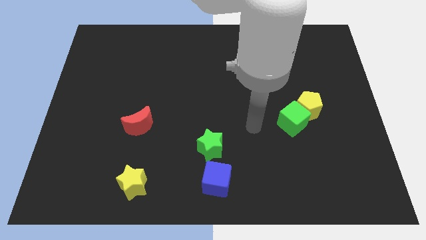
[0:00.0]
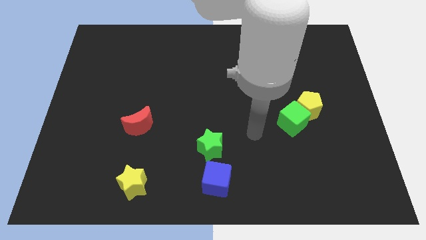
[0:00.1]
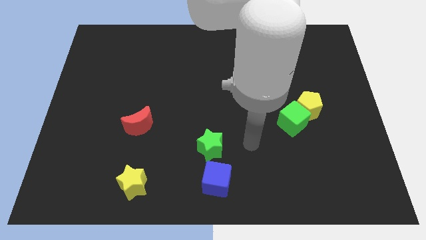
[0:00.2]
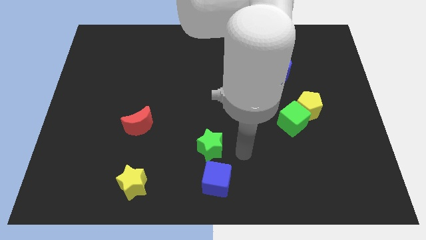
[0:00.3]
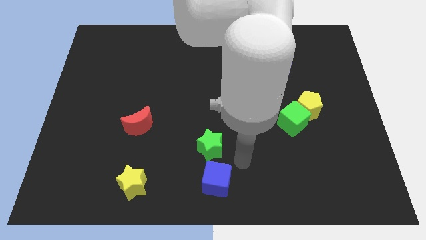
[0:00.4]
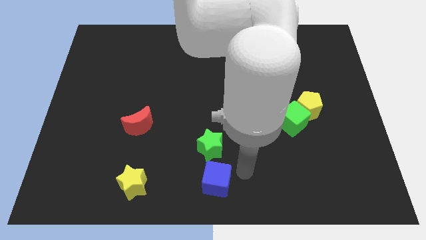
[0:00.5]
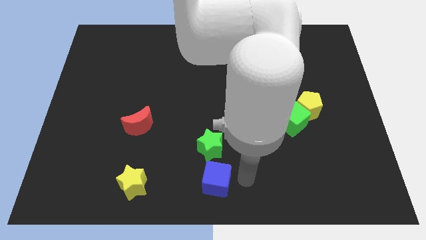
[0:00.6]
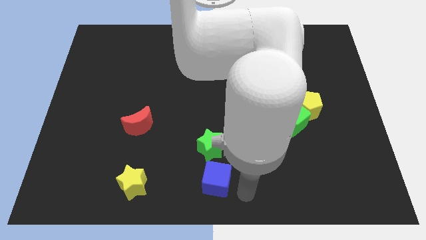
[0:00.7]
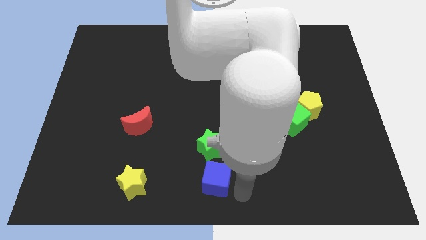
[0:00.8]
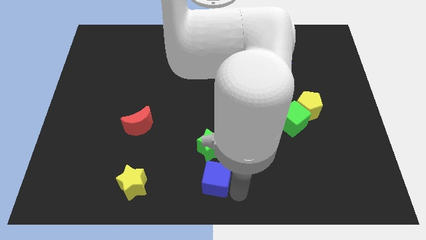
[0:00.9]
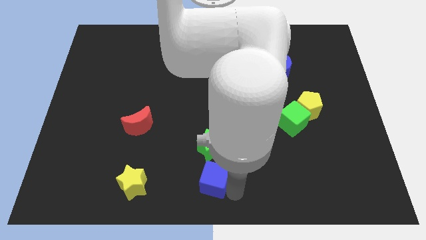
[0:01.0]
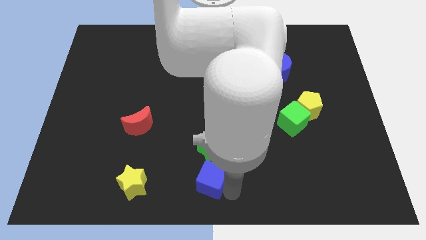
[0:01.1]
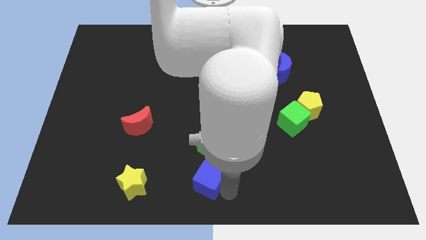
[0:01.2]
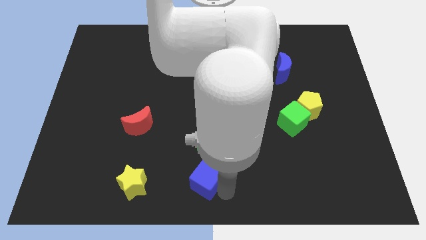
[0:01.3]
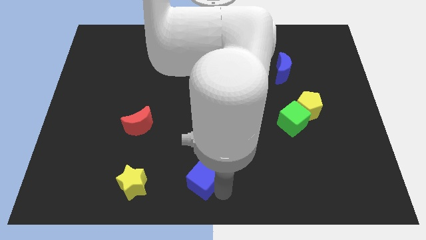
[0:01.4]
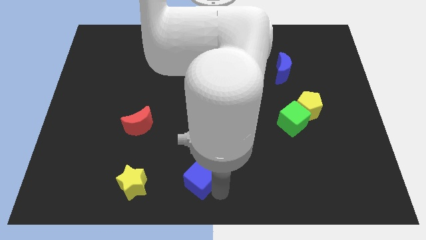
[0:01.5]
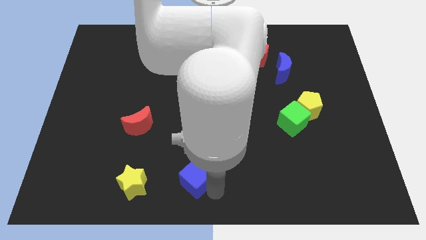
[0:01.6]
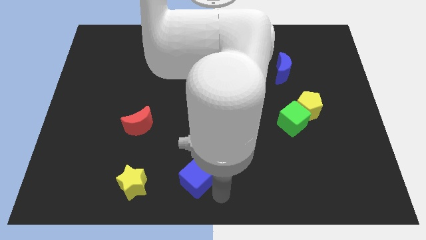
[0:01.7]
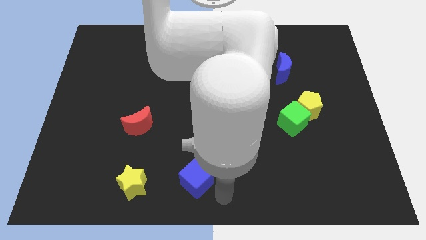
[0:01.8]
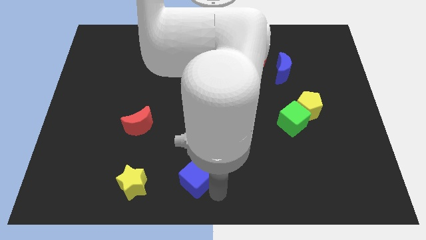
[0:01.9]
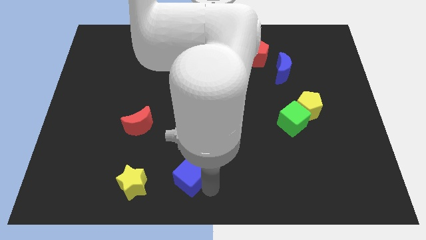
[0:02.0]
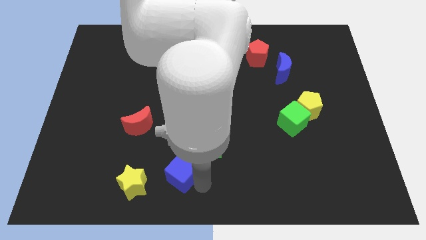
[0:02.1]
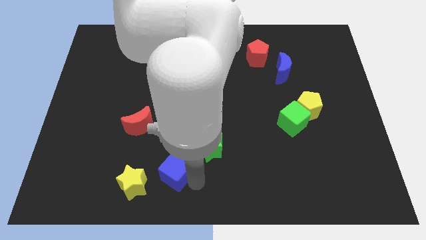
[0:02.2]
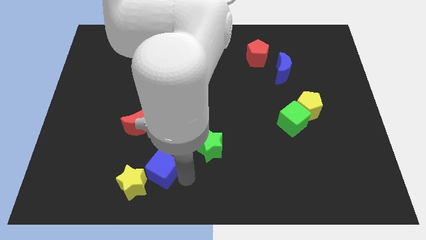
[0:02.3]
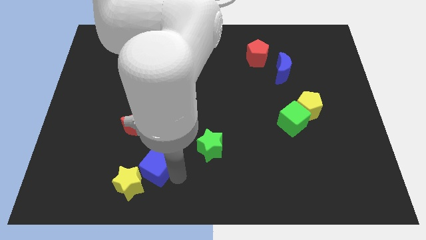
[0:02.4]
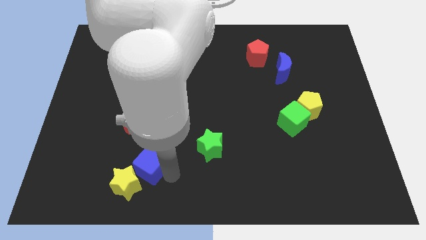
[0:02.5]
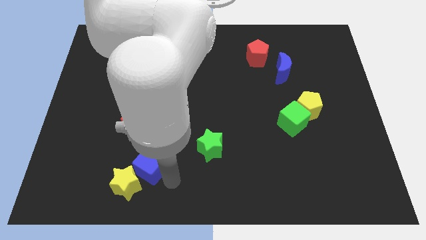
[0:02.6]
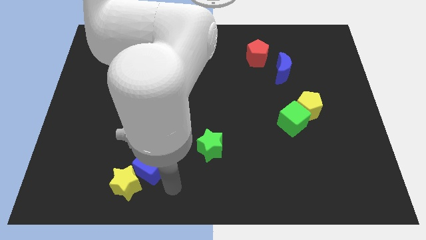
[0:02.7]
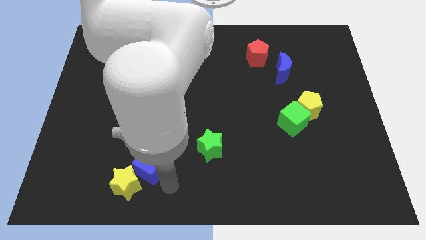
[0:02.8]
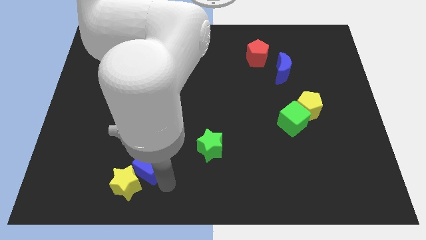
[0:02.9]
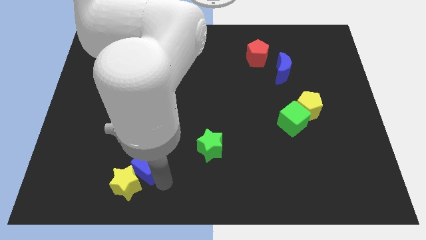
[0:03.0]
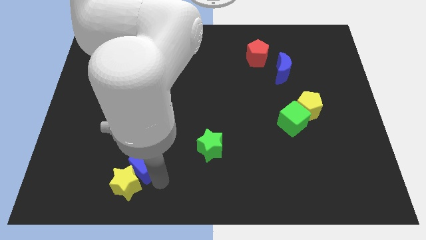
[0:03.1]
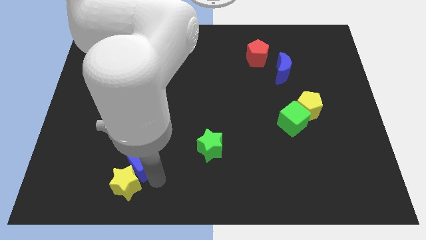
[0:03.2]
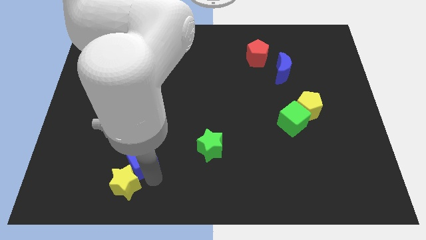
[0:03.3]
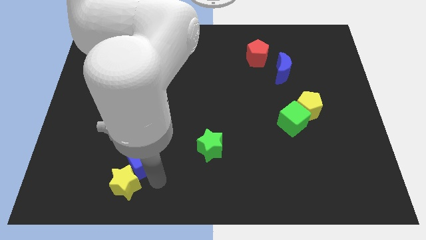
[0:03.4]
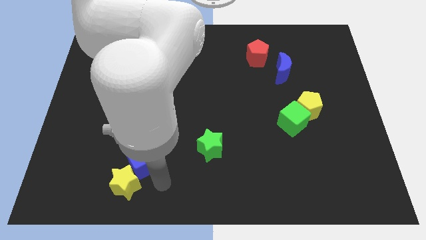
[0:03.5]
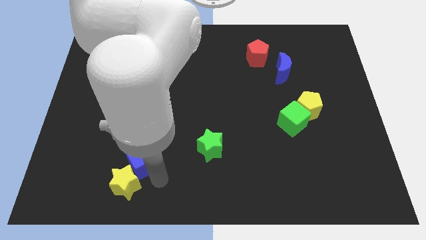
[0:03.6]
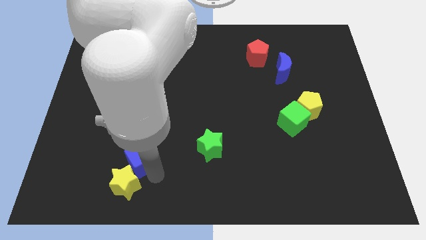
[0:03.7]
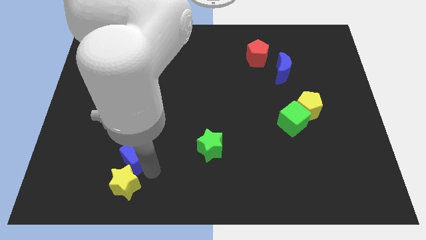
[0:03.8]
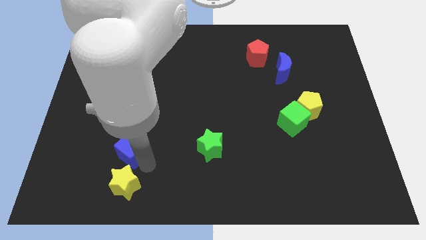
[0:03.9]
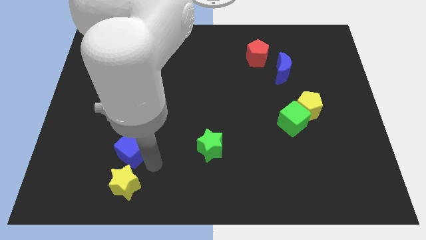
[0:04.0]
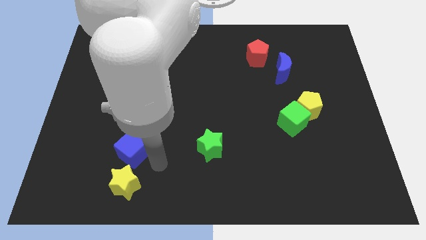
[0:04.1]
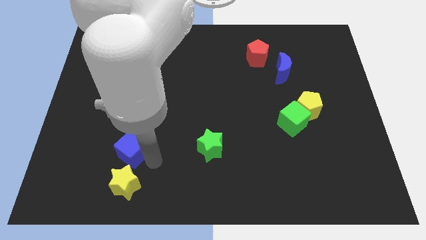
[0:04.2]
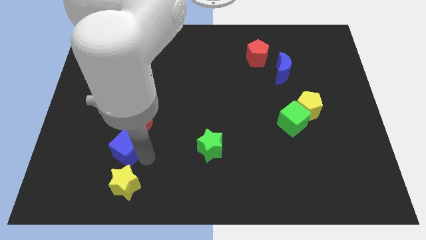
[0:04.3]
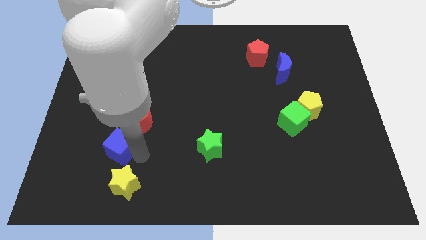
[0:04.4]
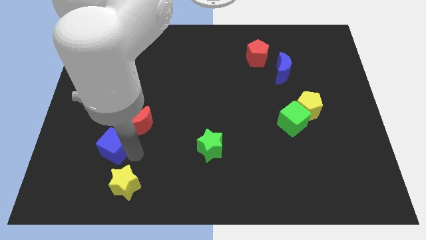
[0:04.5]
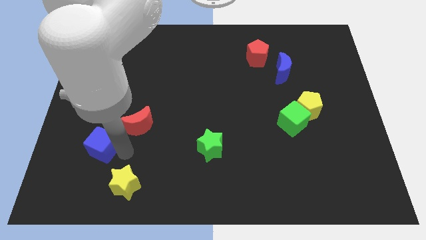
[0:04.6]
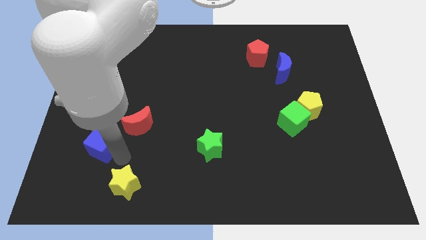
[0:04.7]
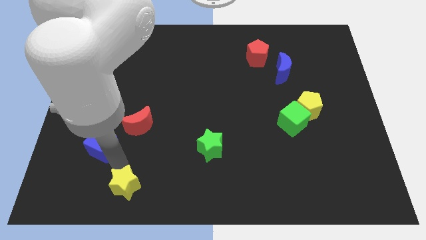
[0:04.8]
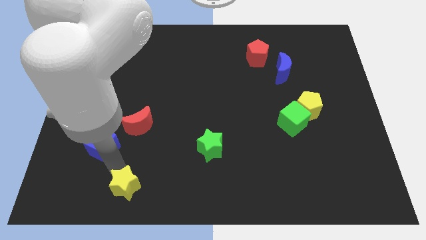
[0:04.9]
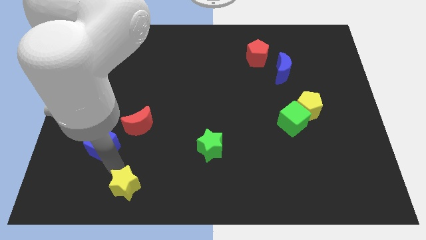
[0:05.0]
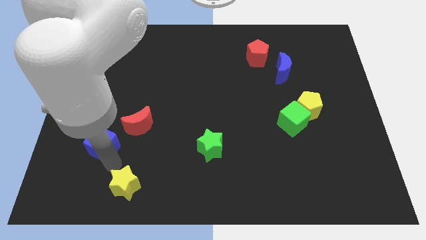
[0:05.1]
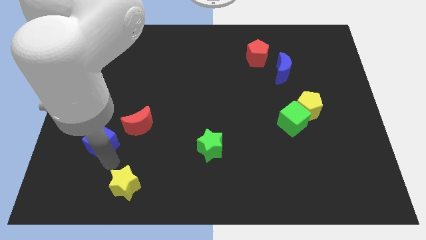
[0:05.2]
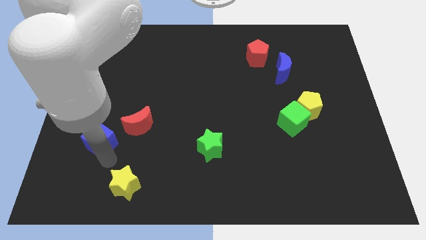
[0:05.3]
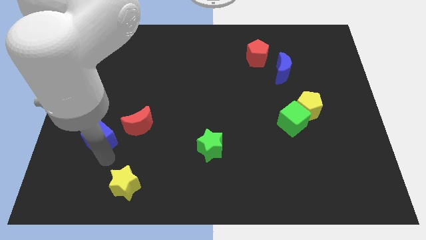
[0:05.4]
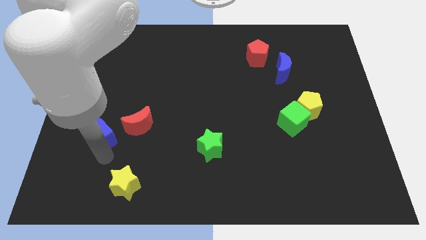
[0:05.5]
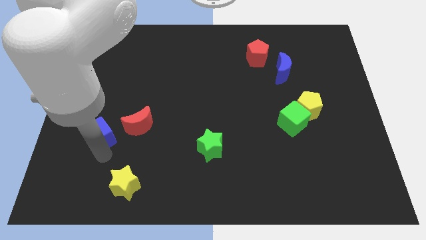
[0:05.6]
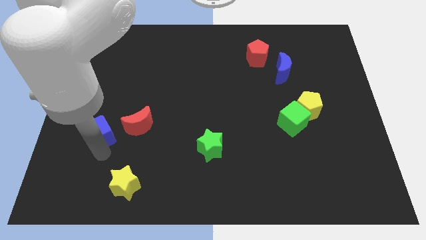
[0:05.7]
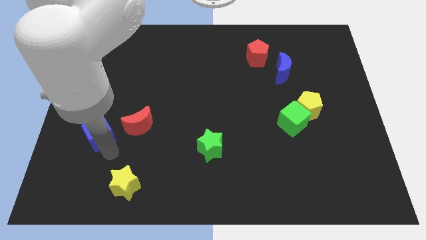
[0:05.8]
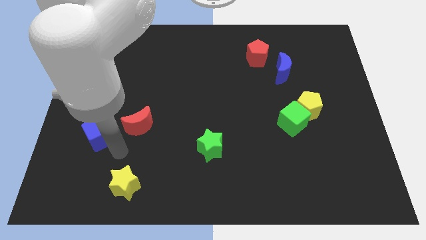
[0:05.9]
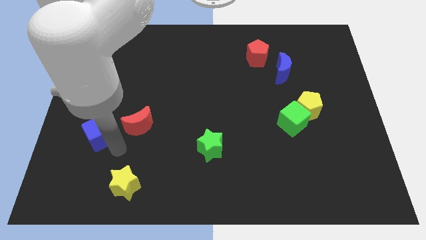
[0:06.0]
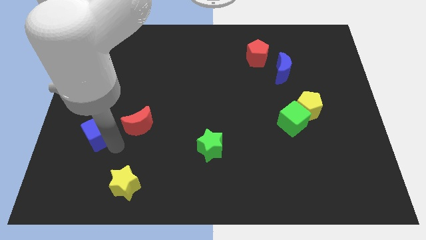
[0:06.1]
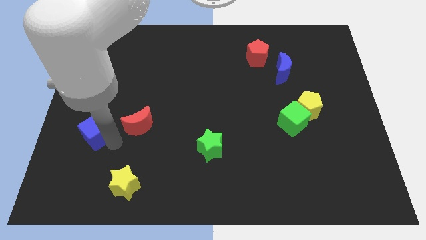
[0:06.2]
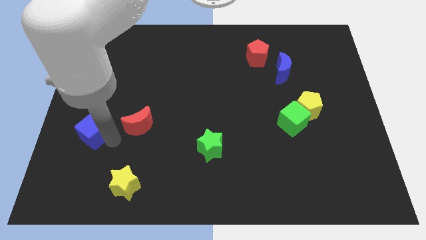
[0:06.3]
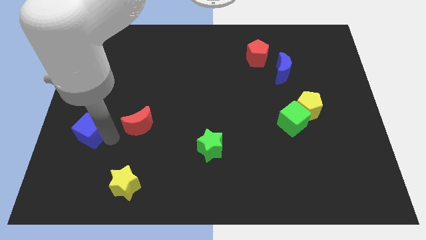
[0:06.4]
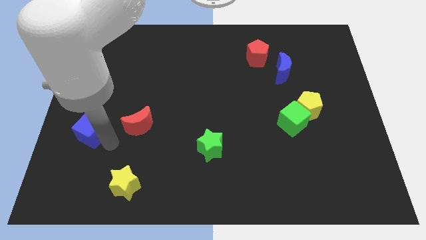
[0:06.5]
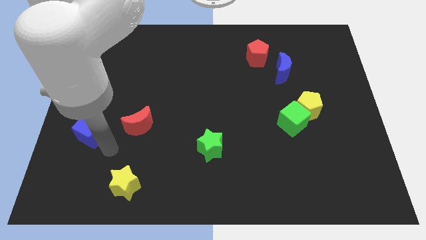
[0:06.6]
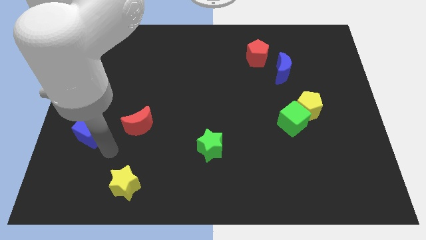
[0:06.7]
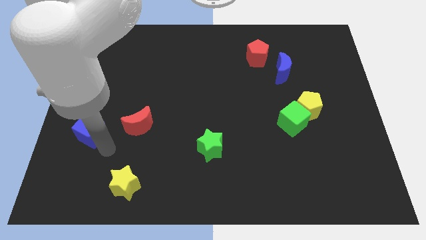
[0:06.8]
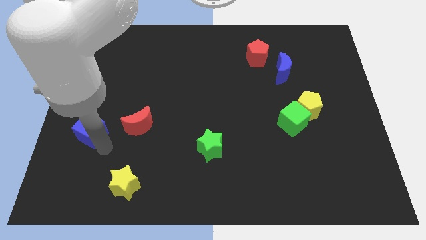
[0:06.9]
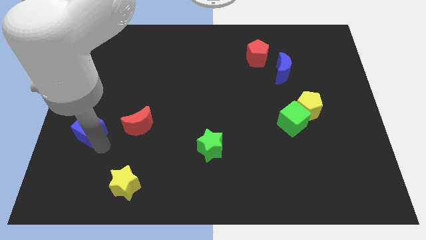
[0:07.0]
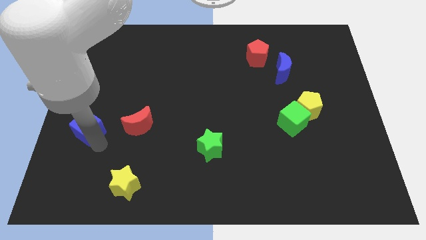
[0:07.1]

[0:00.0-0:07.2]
slide the blue cube to the left side of the board

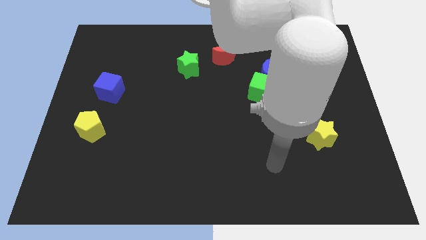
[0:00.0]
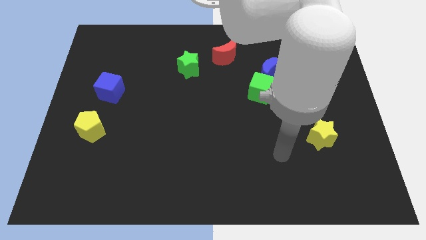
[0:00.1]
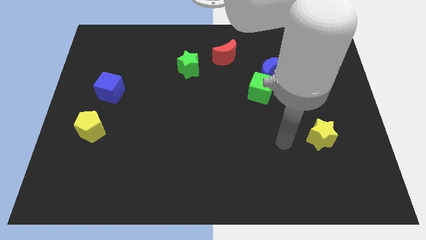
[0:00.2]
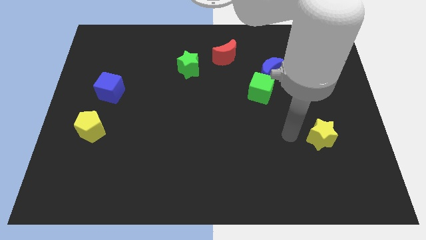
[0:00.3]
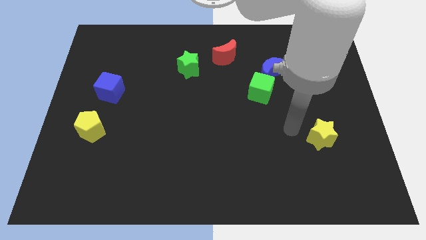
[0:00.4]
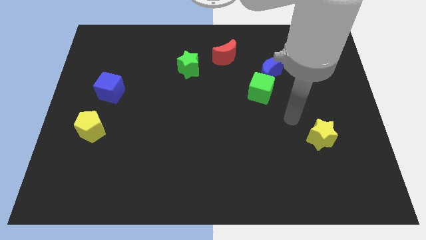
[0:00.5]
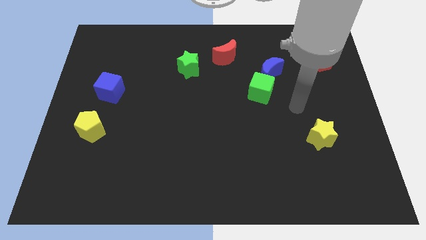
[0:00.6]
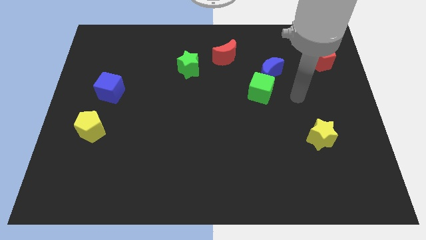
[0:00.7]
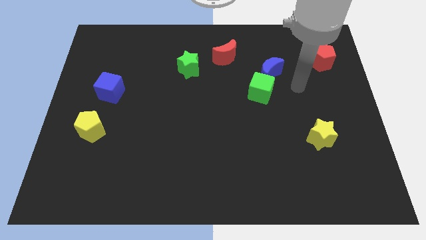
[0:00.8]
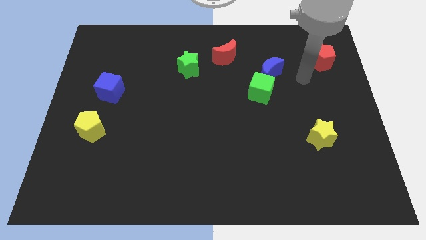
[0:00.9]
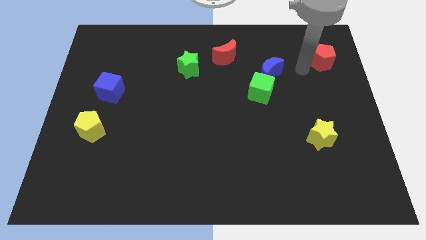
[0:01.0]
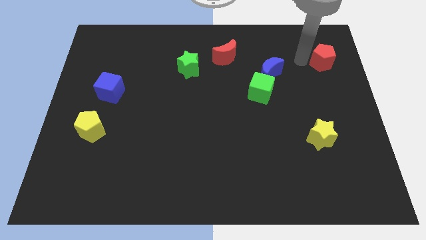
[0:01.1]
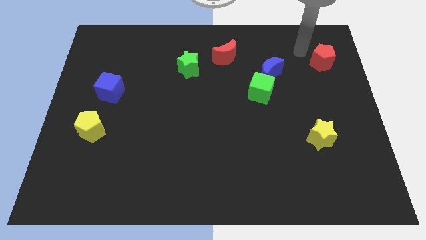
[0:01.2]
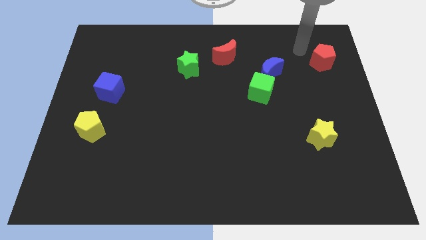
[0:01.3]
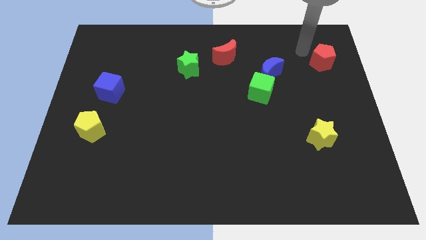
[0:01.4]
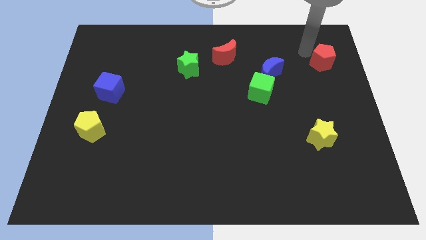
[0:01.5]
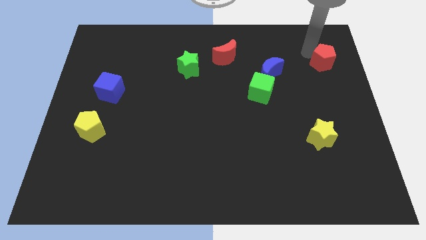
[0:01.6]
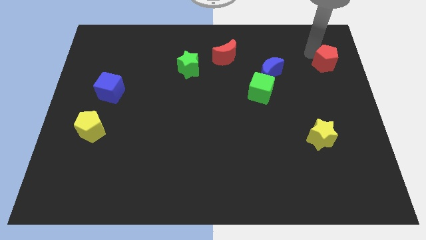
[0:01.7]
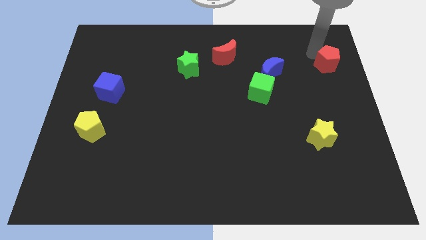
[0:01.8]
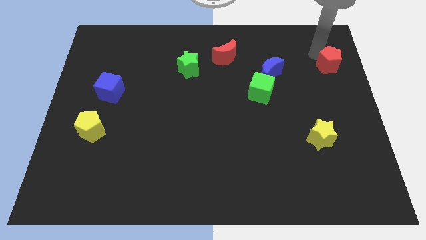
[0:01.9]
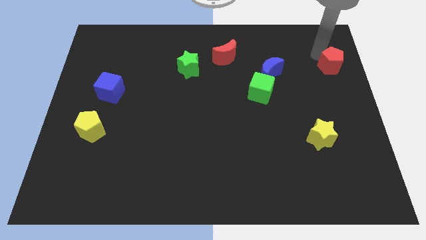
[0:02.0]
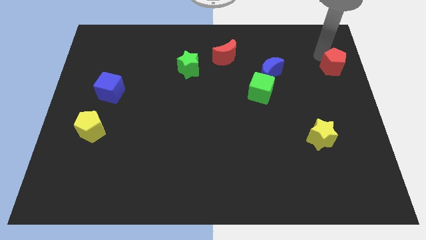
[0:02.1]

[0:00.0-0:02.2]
put the red pentagon to the right side
